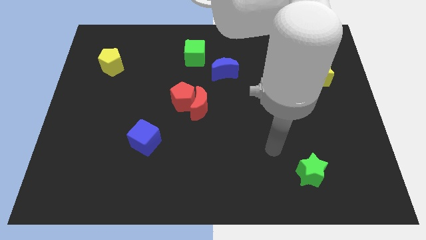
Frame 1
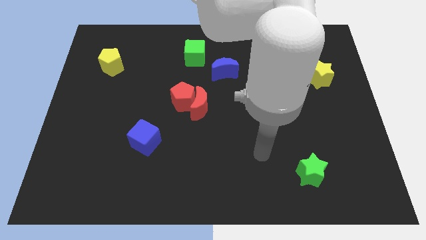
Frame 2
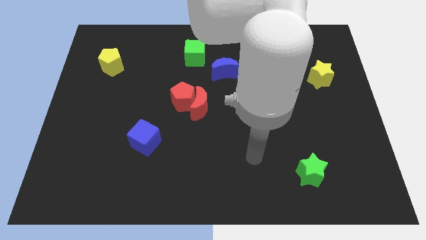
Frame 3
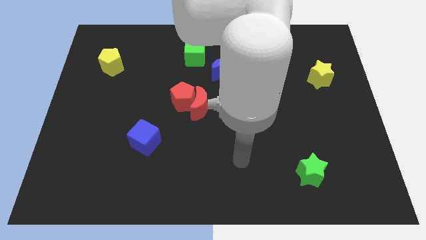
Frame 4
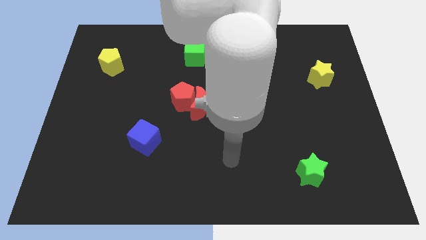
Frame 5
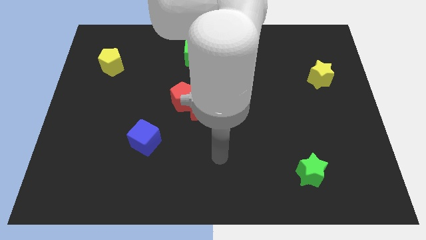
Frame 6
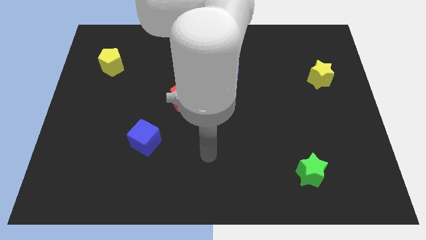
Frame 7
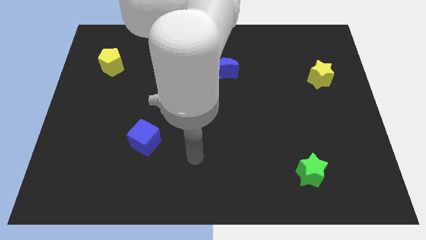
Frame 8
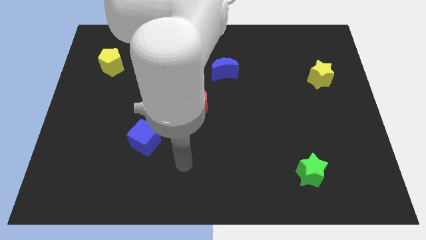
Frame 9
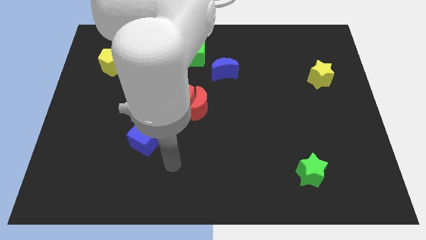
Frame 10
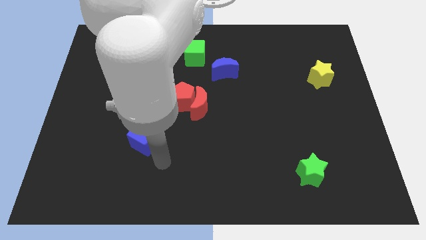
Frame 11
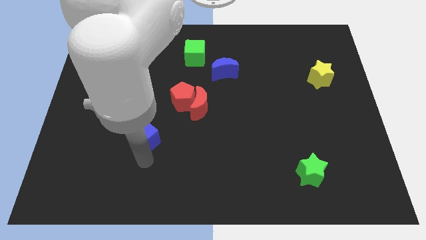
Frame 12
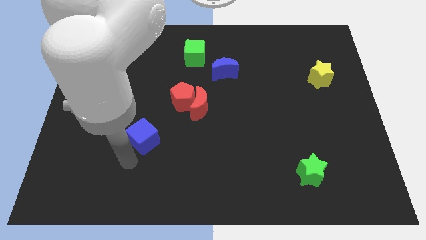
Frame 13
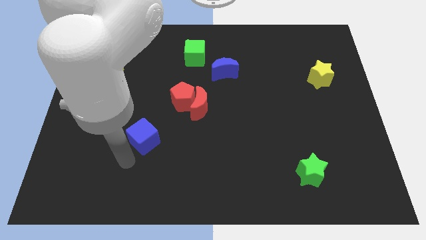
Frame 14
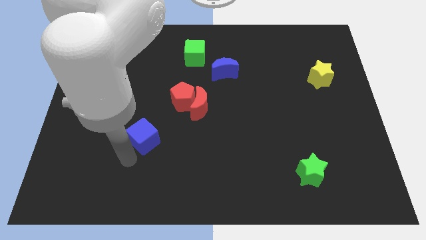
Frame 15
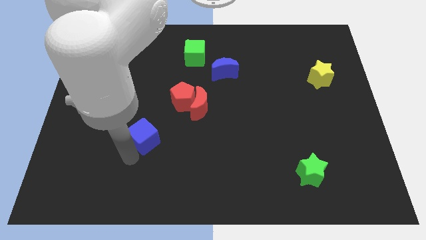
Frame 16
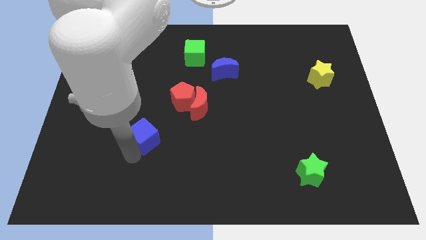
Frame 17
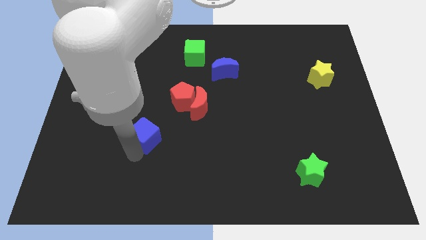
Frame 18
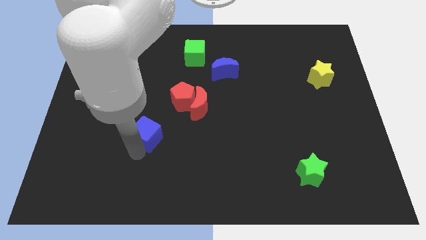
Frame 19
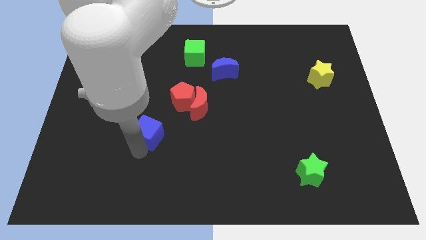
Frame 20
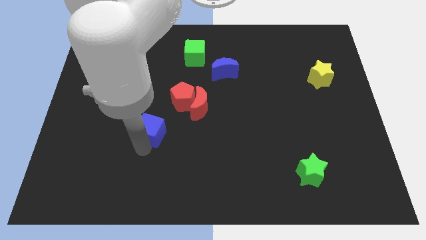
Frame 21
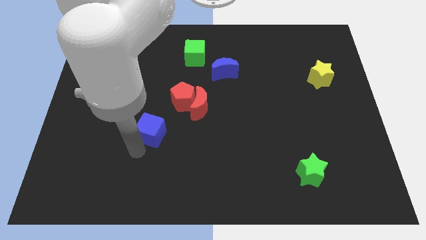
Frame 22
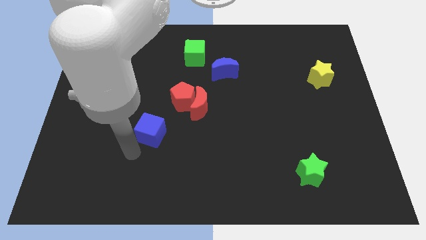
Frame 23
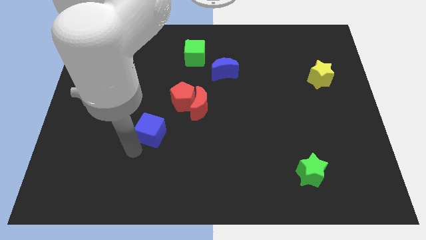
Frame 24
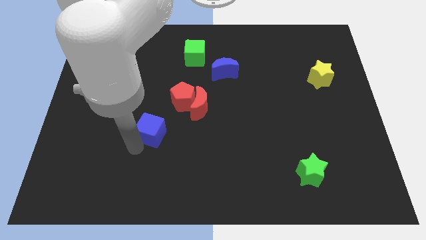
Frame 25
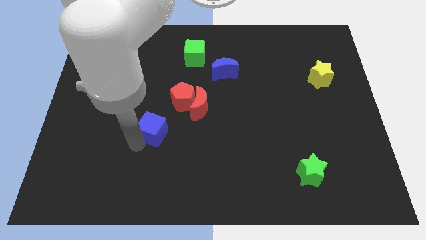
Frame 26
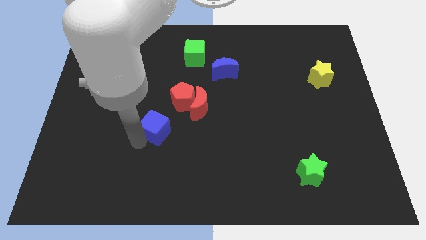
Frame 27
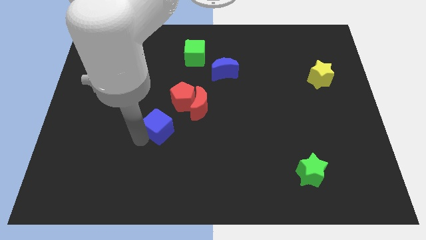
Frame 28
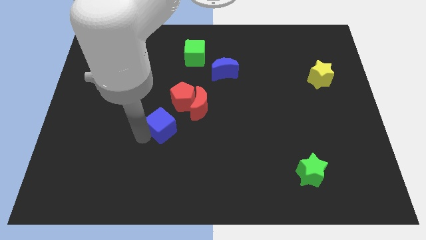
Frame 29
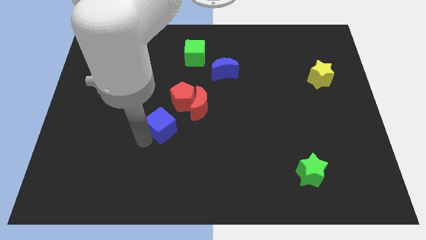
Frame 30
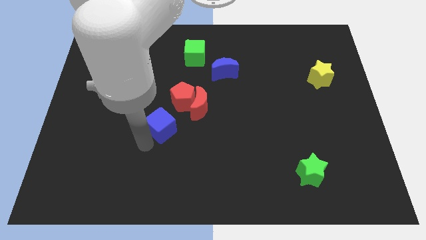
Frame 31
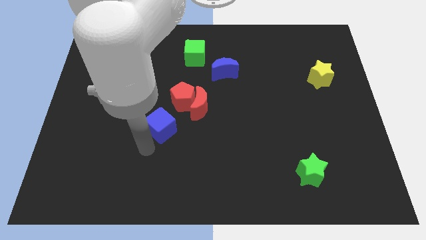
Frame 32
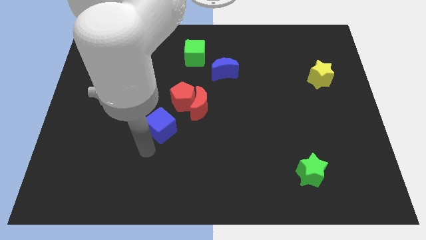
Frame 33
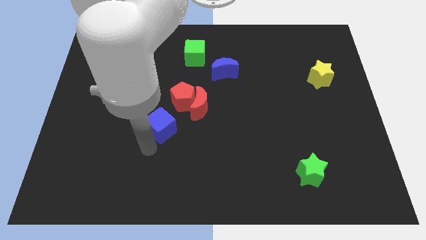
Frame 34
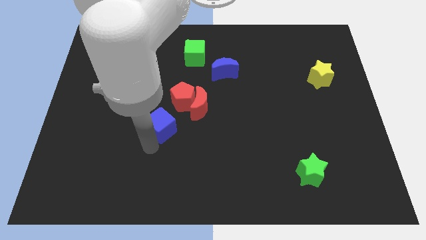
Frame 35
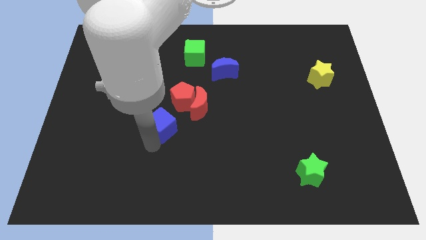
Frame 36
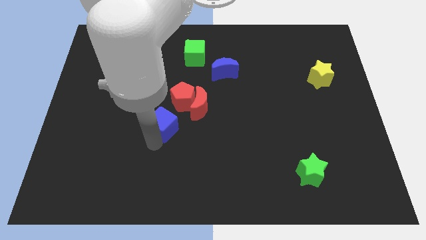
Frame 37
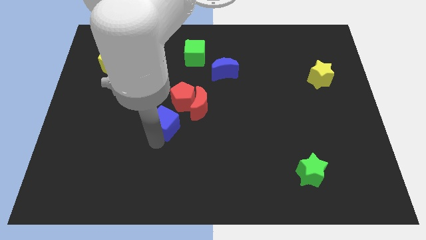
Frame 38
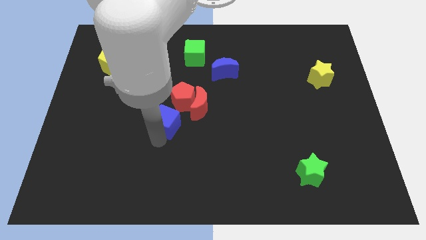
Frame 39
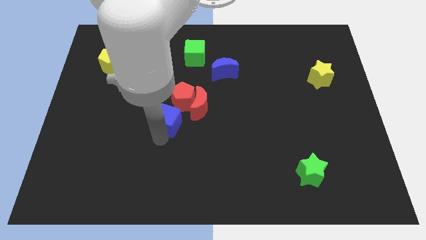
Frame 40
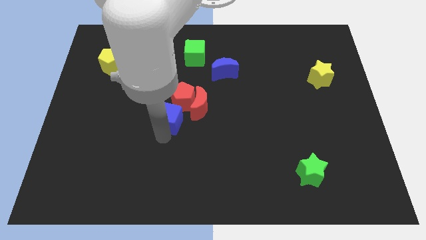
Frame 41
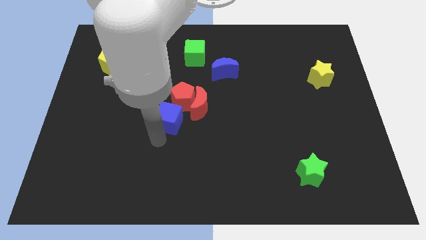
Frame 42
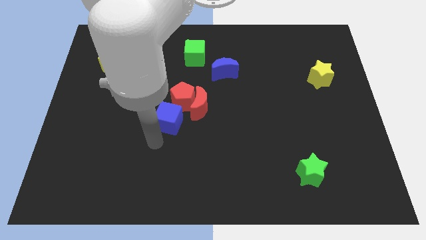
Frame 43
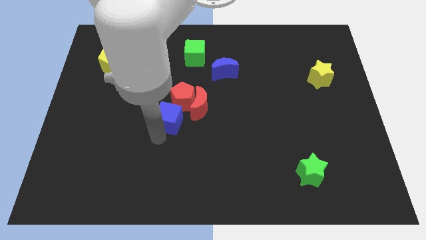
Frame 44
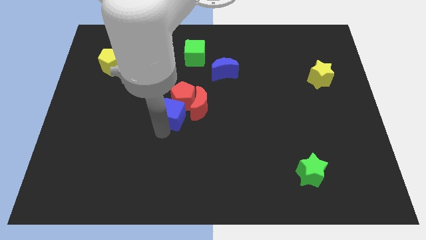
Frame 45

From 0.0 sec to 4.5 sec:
move the blue cube towards the red pentagon

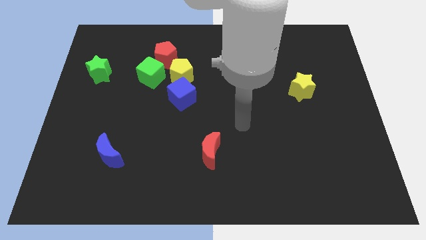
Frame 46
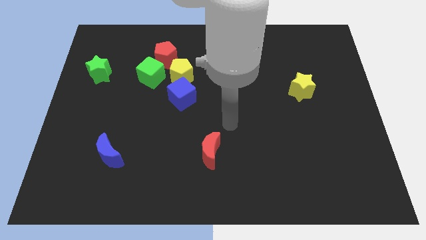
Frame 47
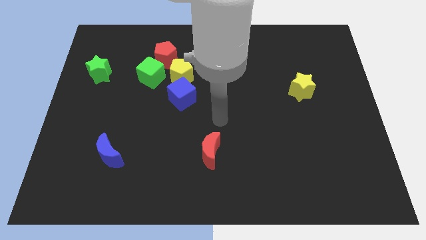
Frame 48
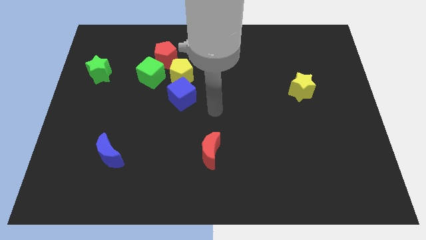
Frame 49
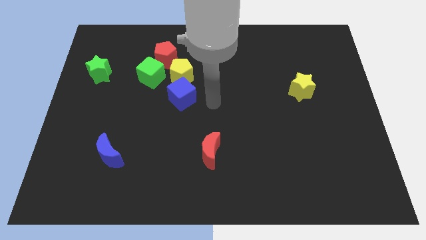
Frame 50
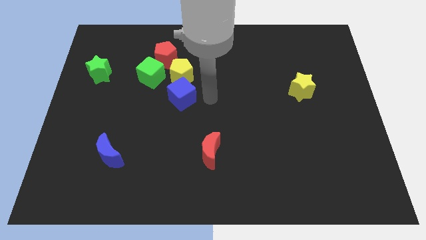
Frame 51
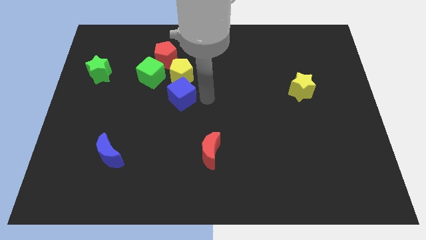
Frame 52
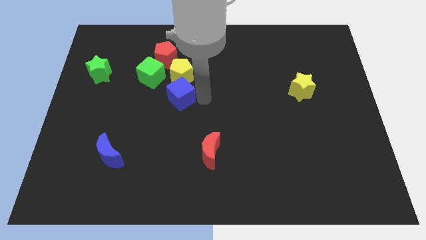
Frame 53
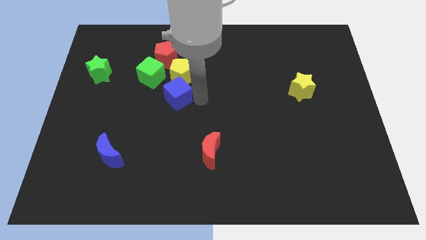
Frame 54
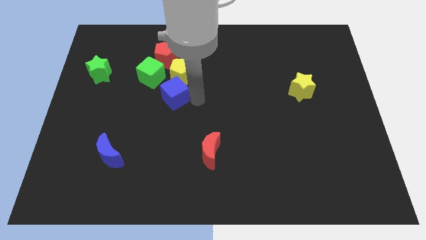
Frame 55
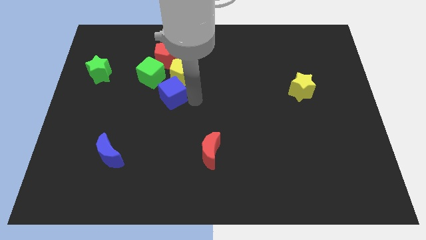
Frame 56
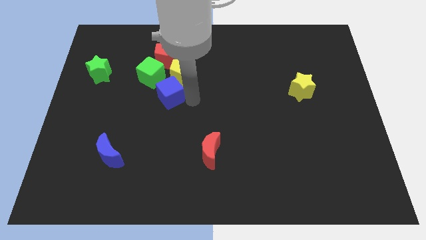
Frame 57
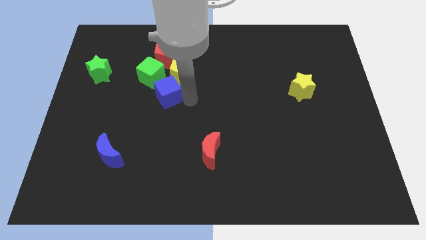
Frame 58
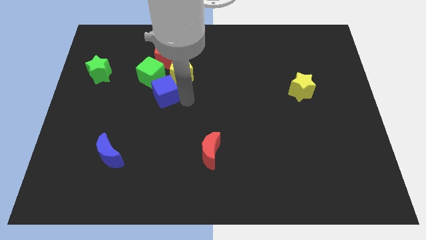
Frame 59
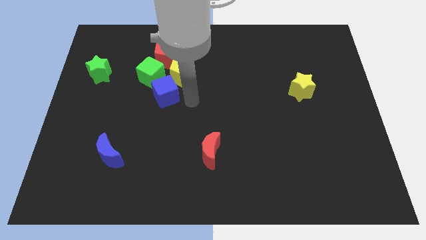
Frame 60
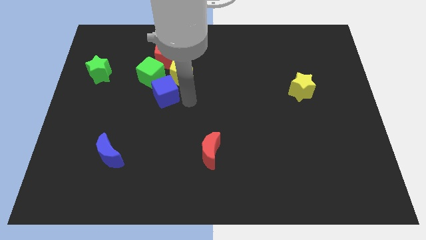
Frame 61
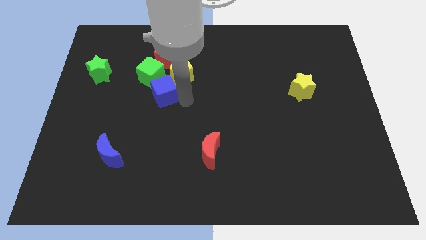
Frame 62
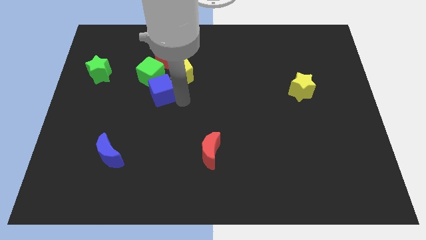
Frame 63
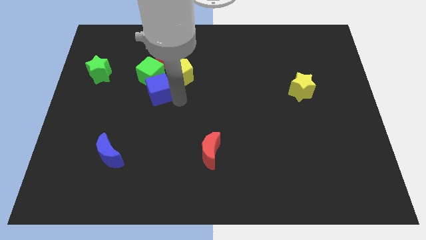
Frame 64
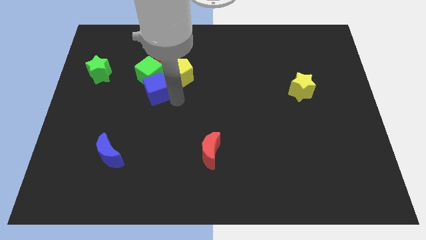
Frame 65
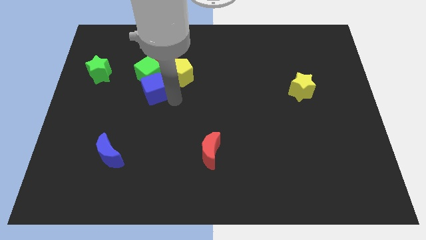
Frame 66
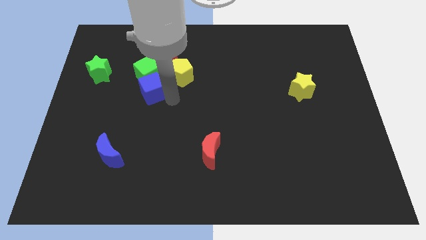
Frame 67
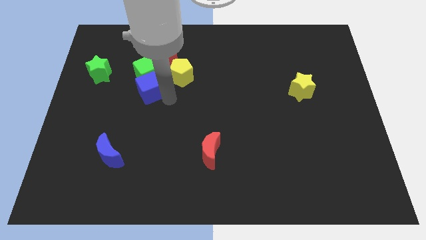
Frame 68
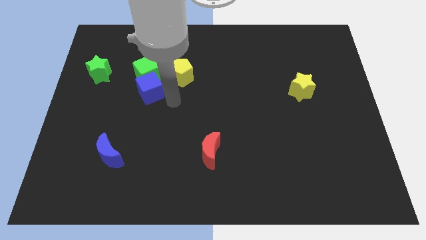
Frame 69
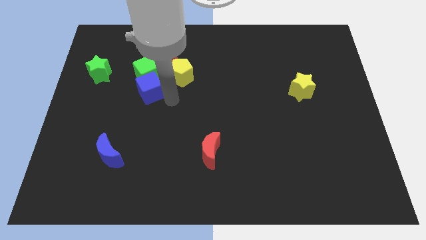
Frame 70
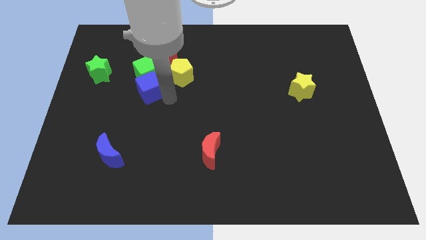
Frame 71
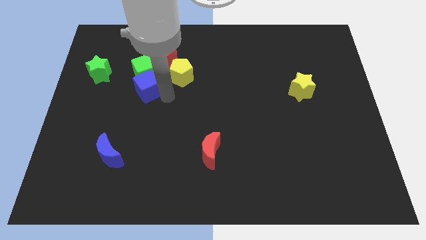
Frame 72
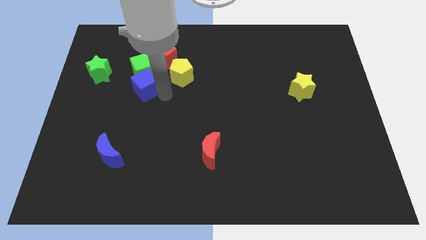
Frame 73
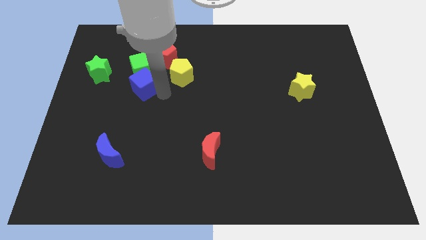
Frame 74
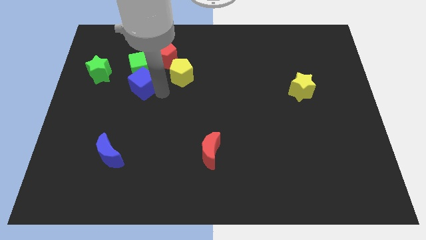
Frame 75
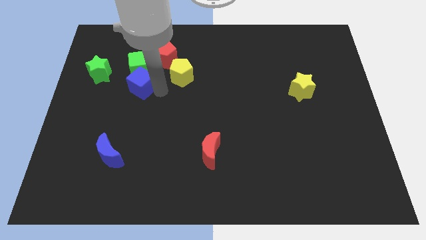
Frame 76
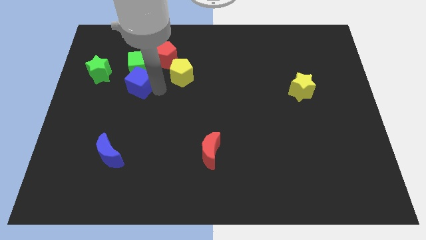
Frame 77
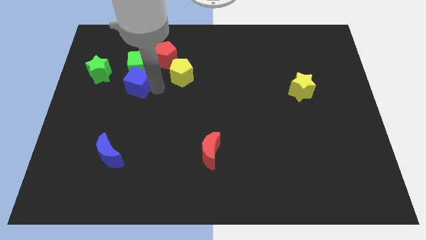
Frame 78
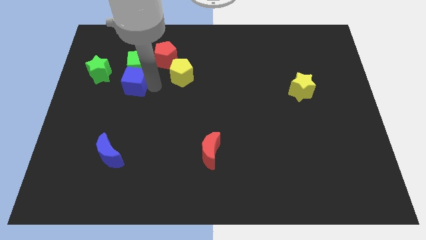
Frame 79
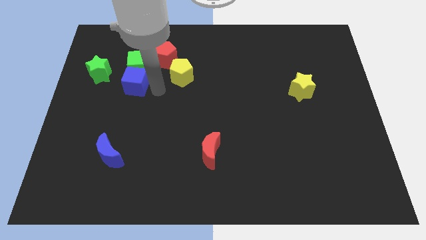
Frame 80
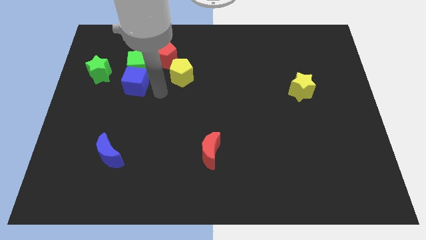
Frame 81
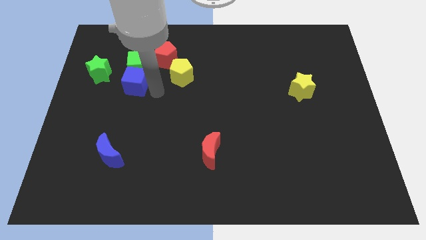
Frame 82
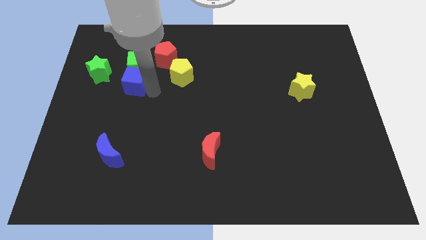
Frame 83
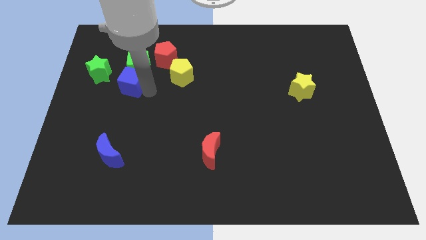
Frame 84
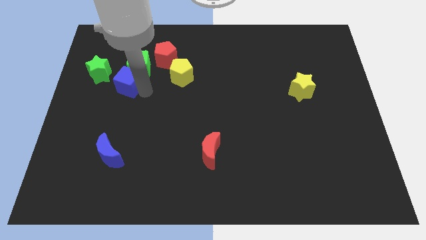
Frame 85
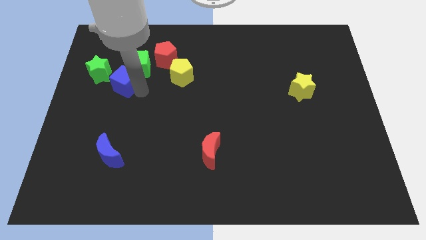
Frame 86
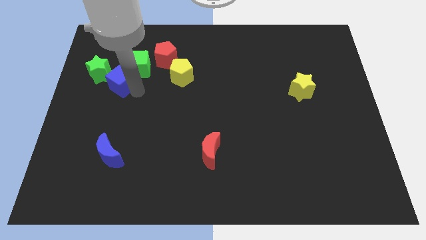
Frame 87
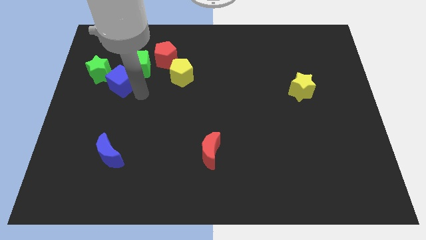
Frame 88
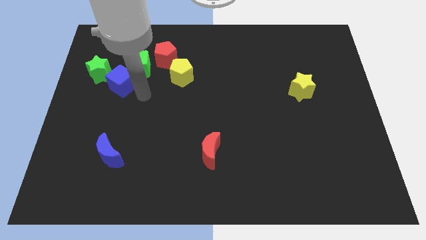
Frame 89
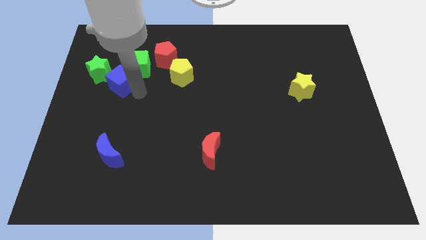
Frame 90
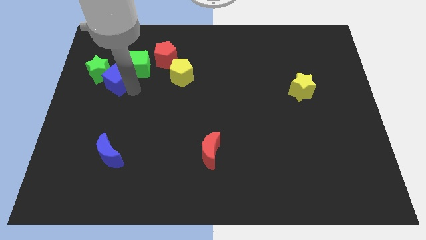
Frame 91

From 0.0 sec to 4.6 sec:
push the blue cube close to the green star
